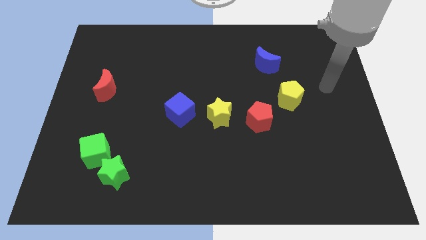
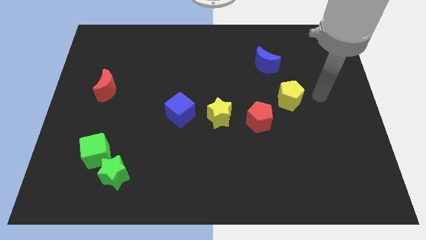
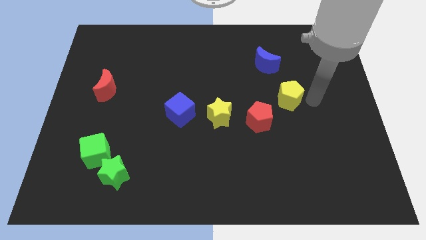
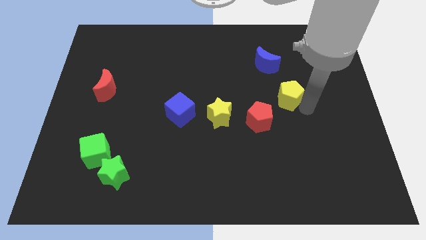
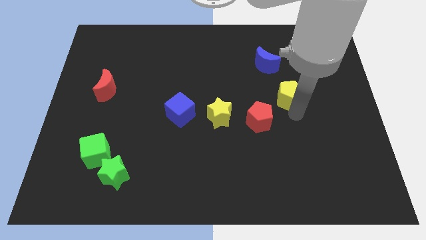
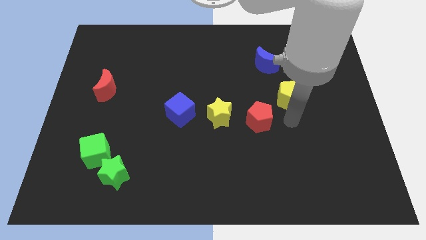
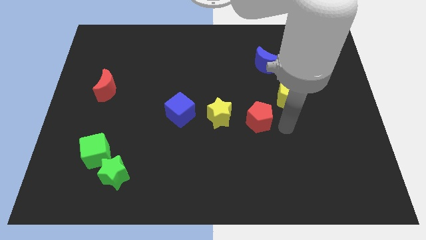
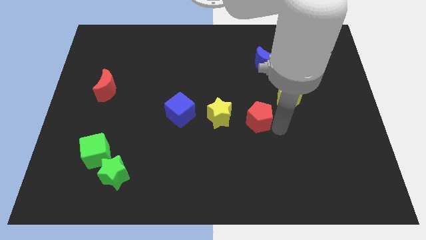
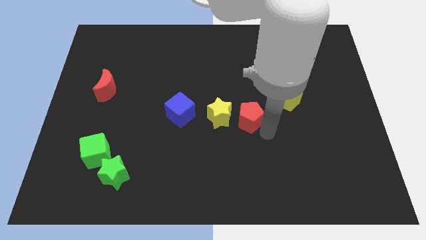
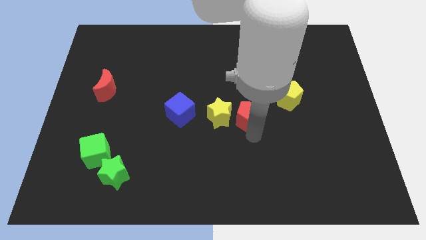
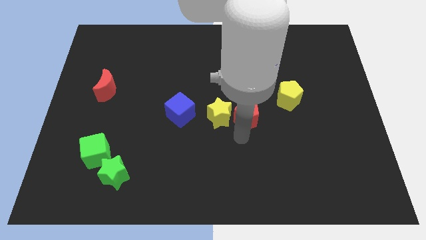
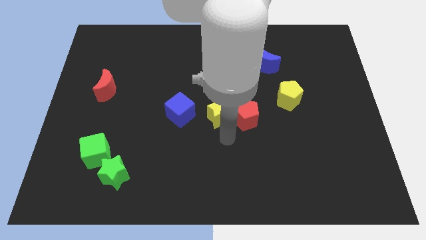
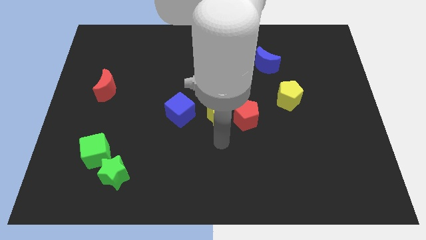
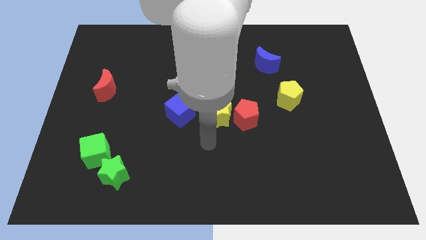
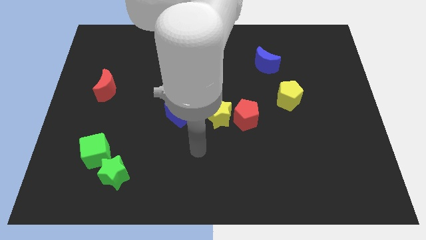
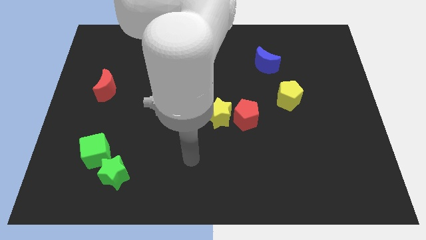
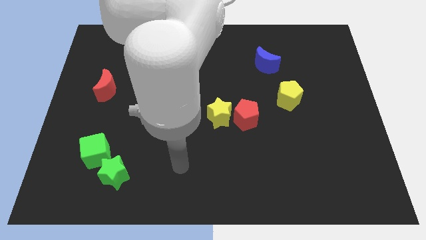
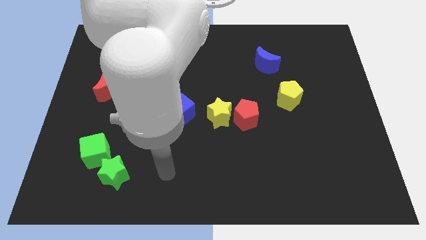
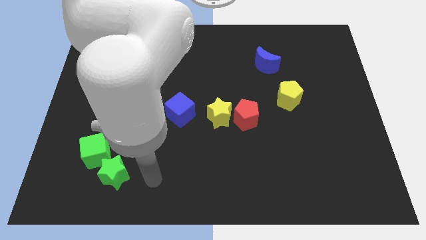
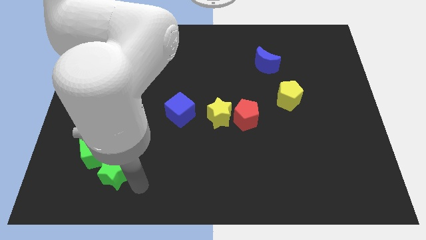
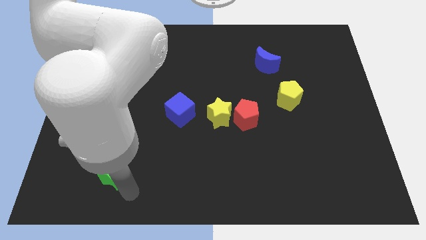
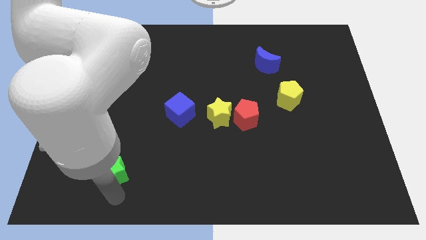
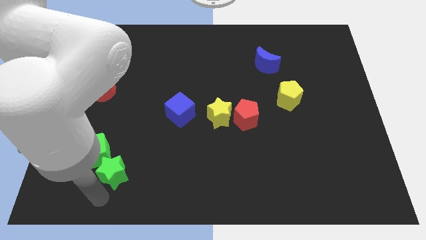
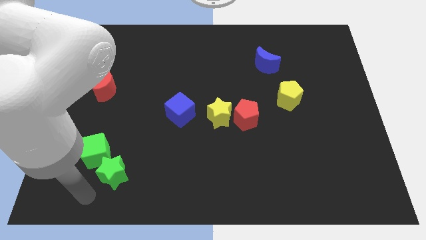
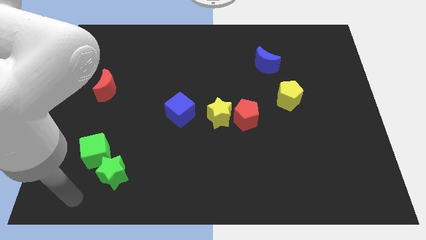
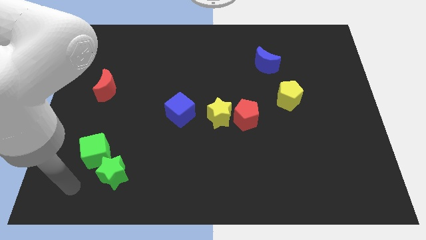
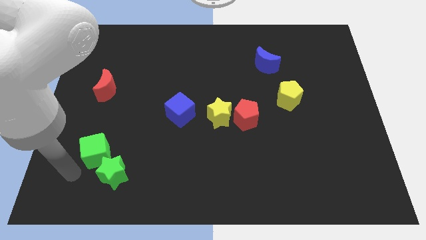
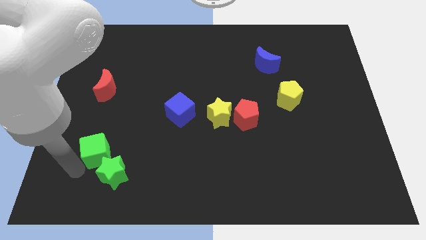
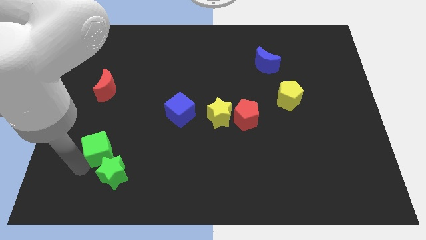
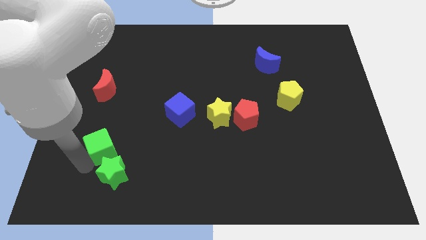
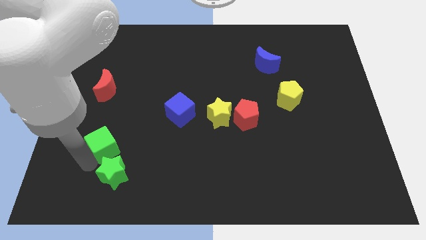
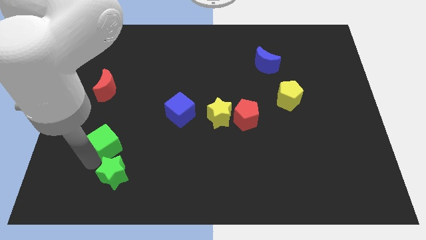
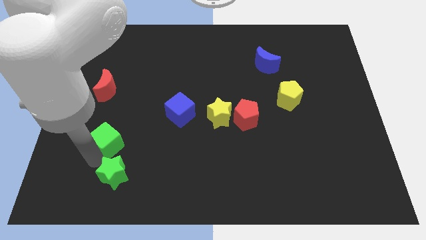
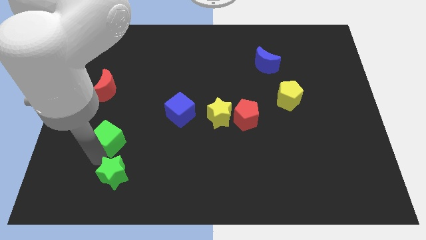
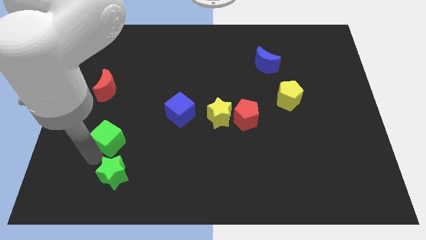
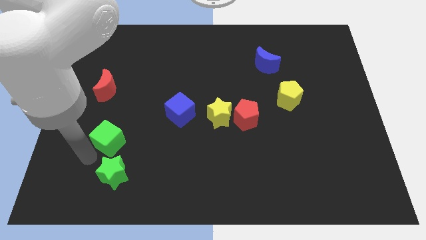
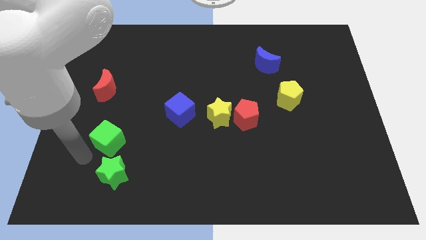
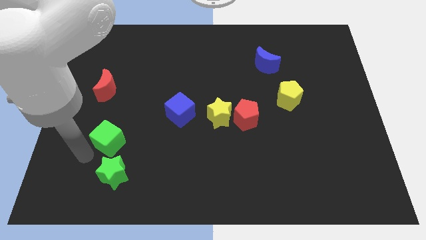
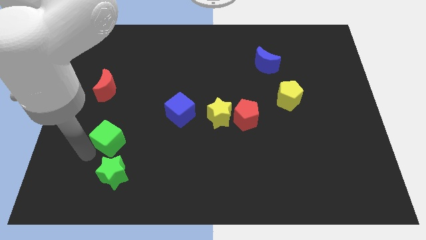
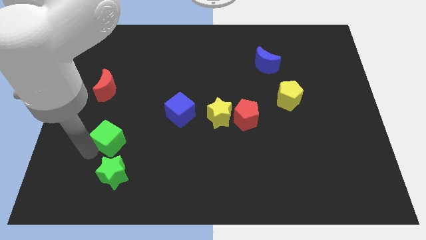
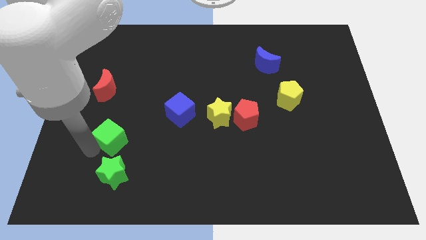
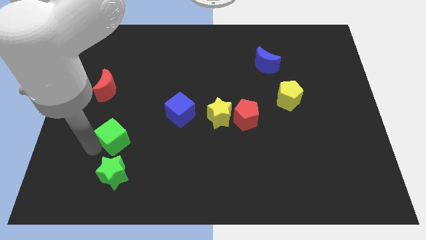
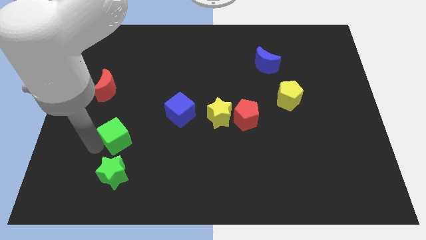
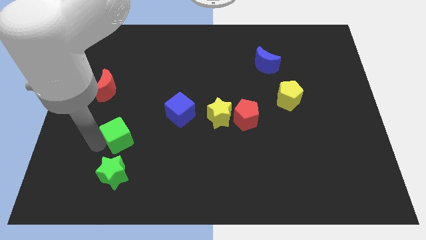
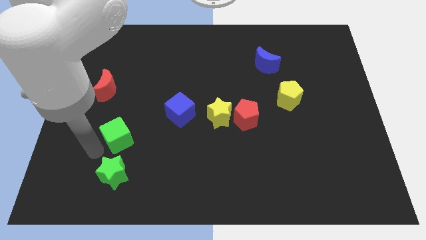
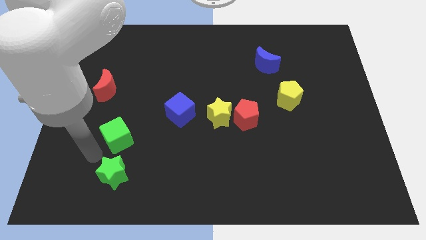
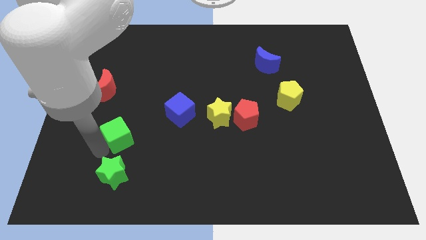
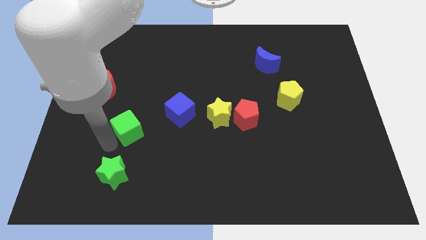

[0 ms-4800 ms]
slightly slide the green cube upwards and then right

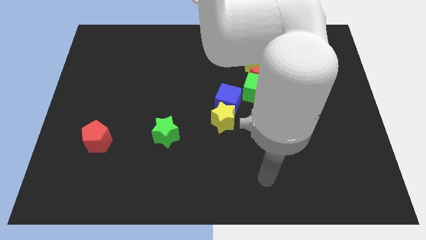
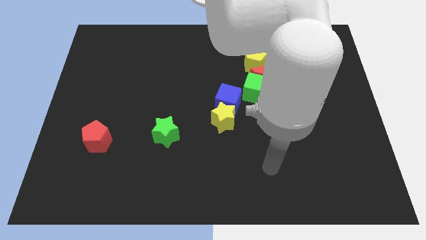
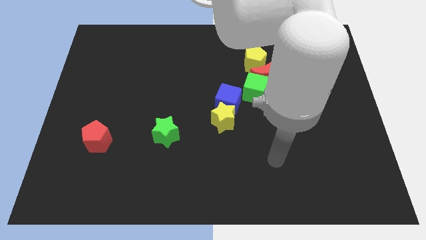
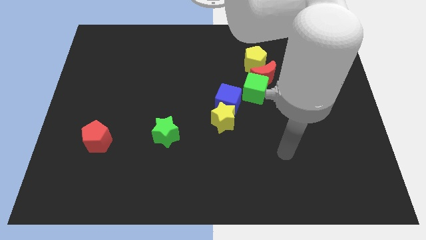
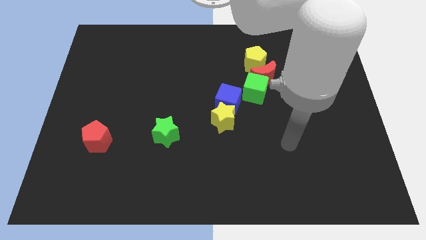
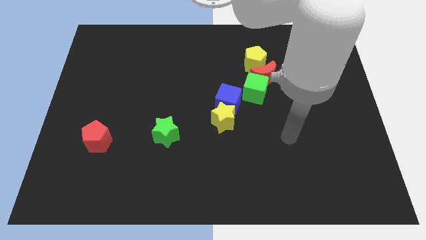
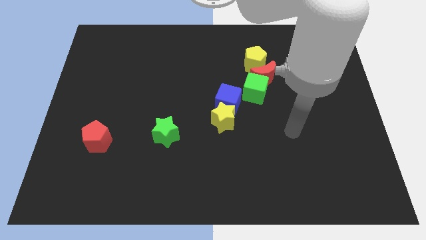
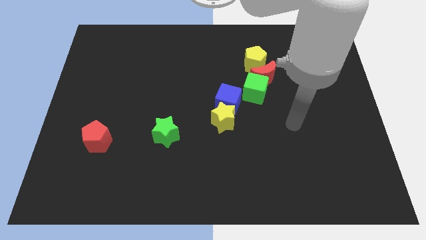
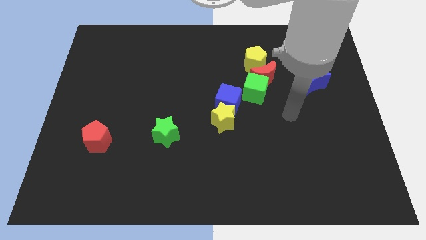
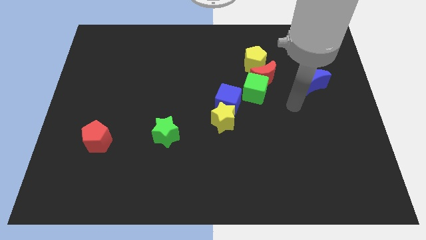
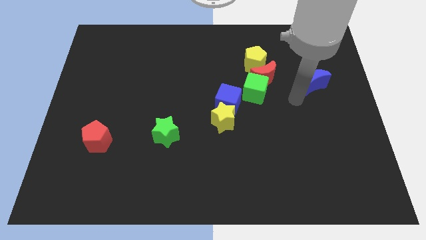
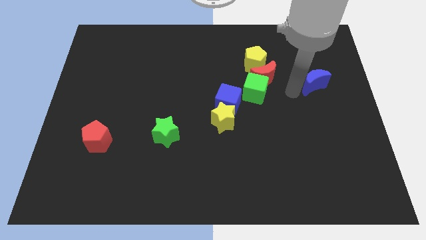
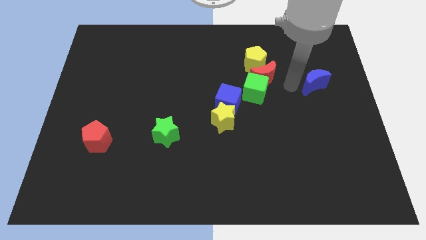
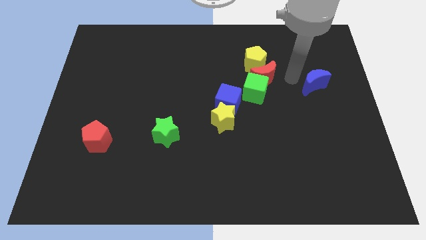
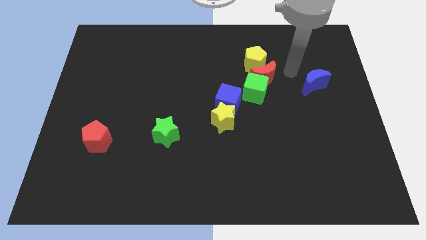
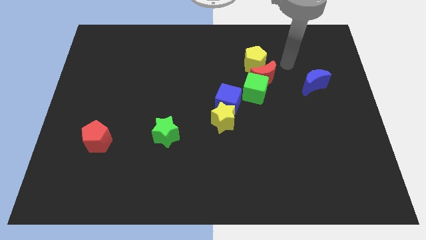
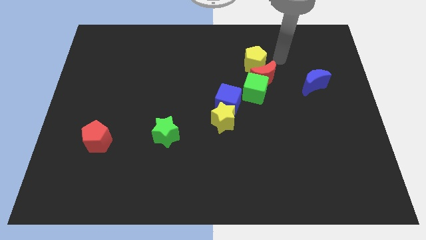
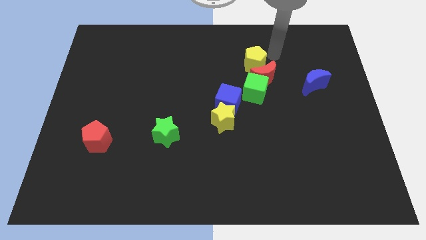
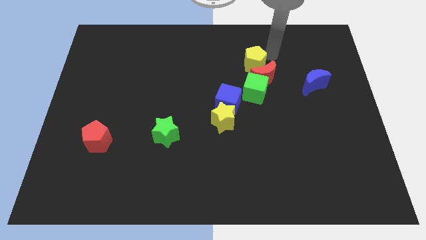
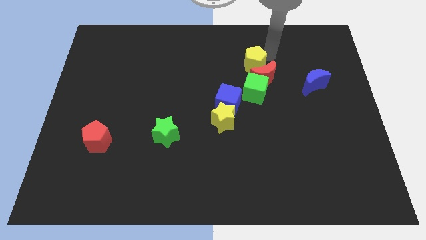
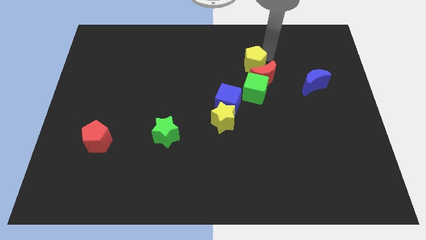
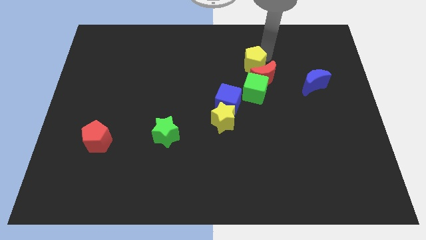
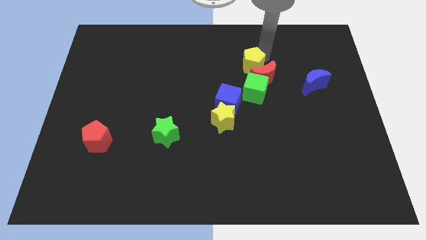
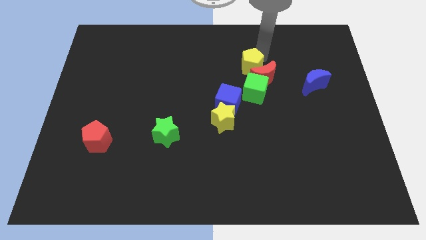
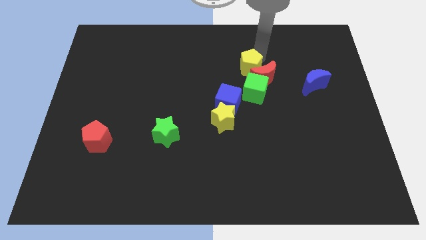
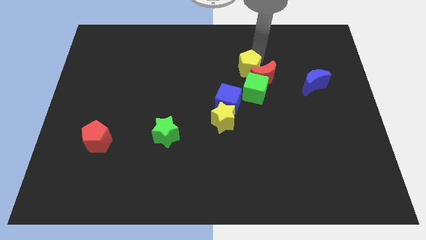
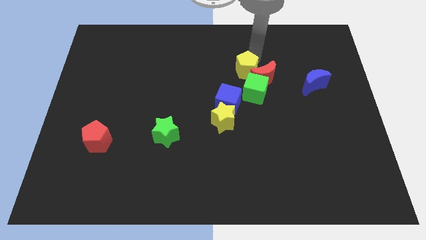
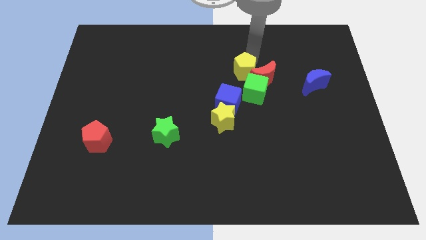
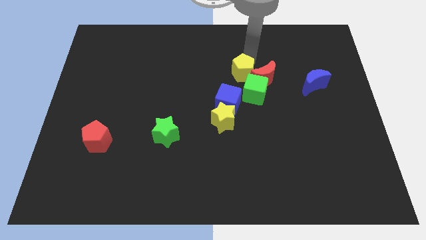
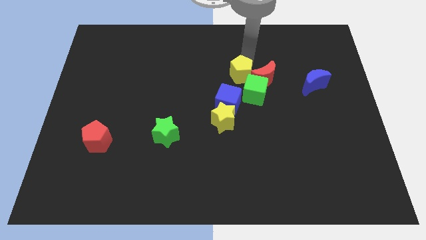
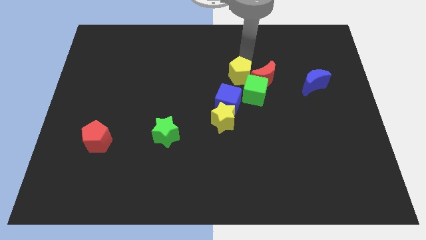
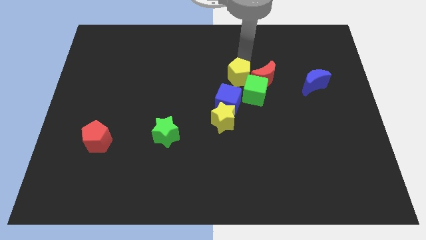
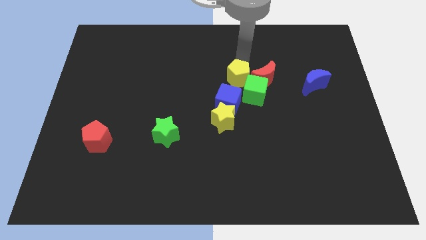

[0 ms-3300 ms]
move the yellow pentagon a little bit downwards and then to the left
